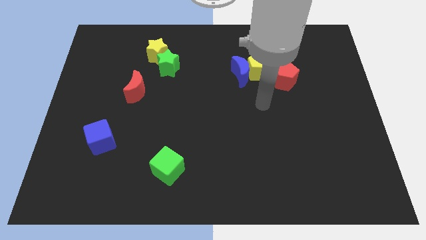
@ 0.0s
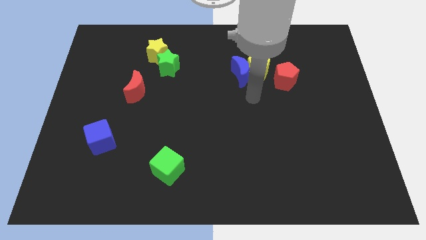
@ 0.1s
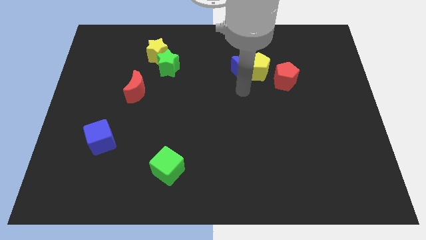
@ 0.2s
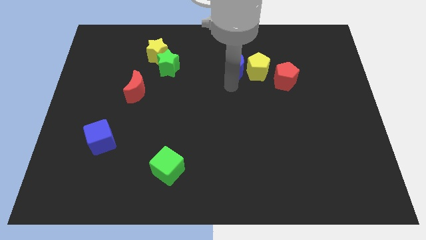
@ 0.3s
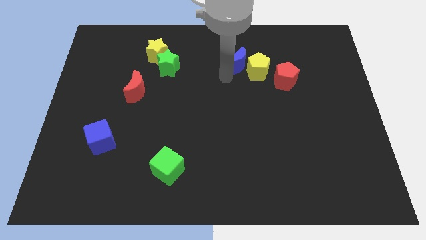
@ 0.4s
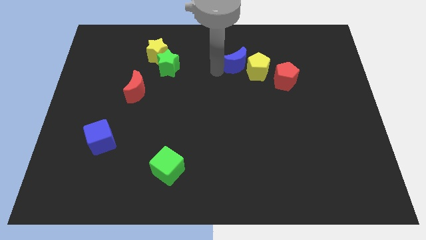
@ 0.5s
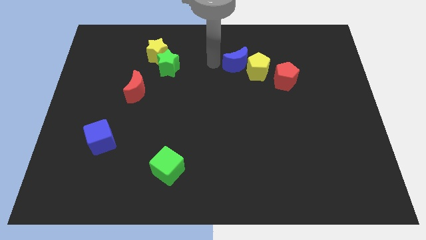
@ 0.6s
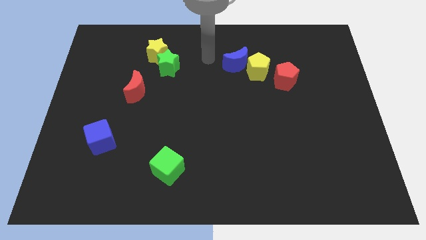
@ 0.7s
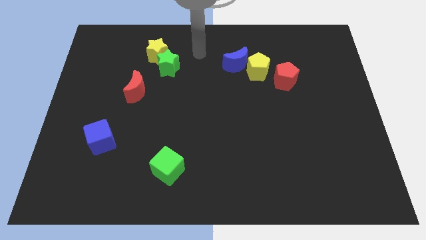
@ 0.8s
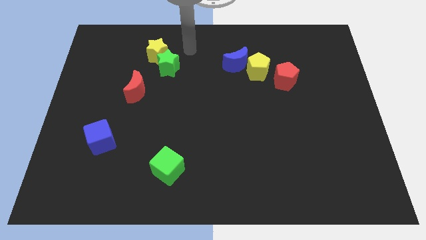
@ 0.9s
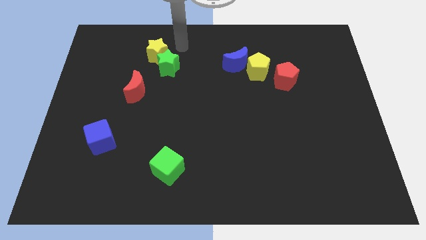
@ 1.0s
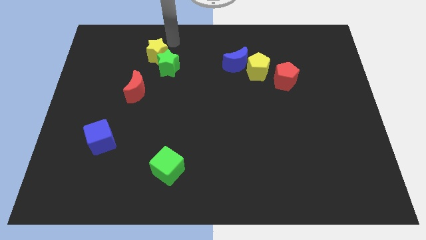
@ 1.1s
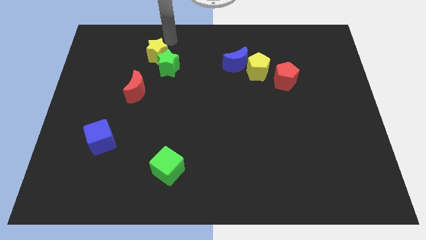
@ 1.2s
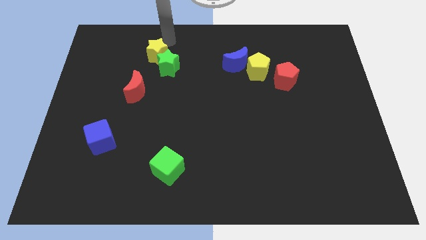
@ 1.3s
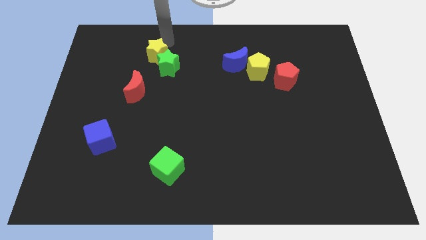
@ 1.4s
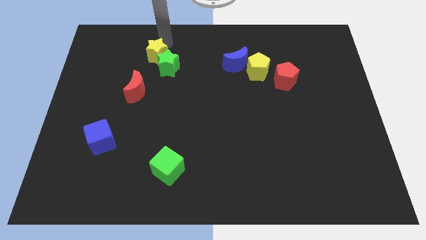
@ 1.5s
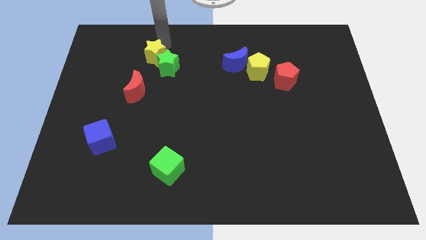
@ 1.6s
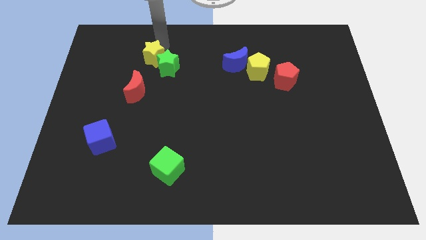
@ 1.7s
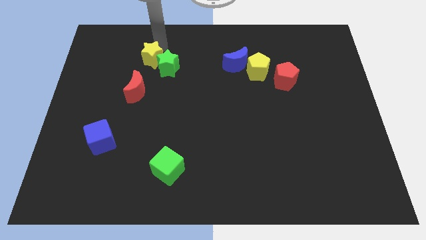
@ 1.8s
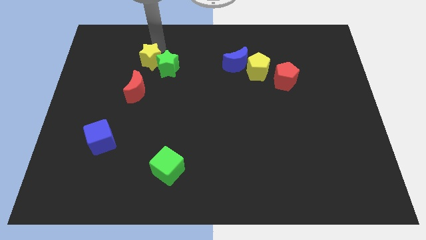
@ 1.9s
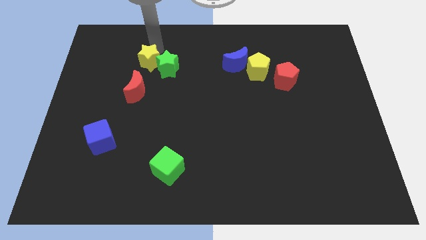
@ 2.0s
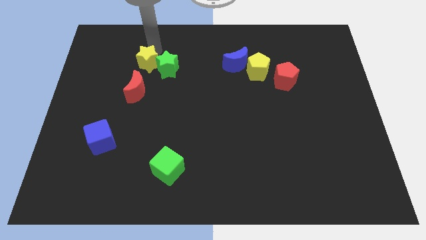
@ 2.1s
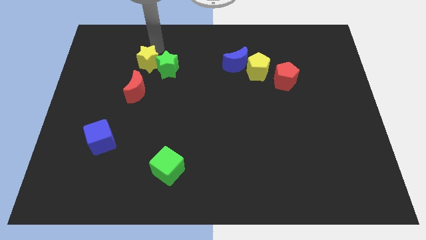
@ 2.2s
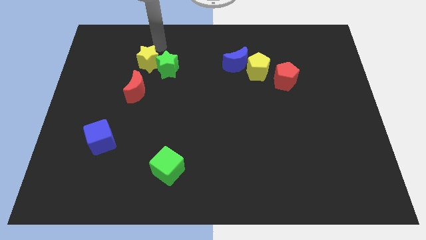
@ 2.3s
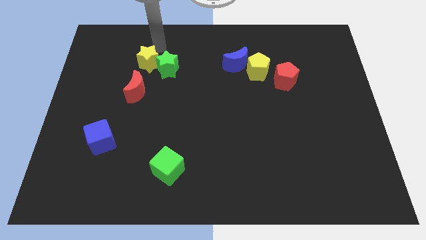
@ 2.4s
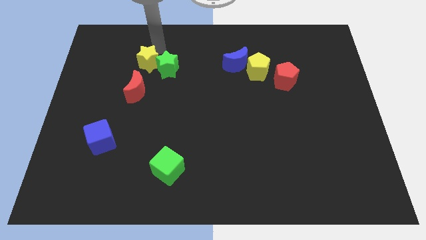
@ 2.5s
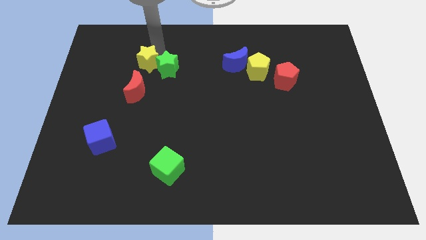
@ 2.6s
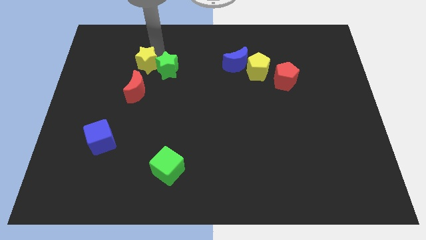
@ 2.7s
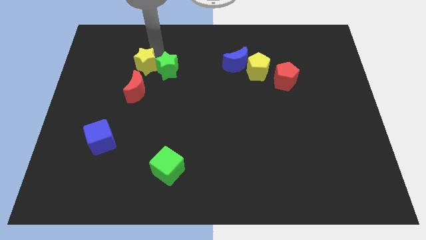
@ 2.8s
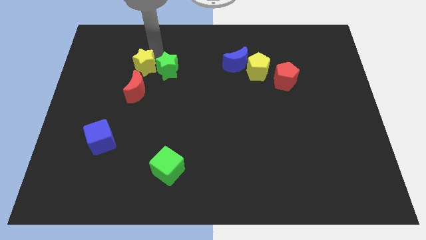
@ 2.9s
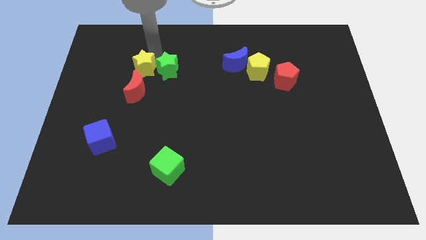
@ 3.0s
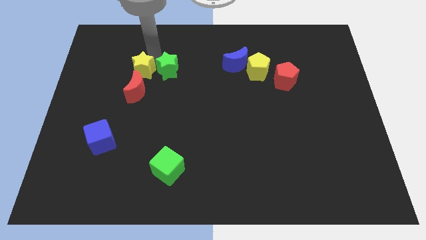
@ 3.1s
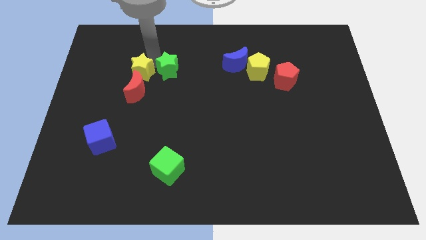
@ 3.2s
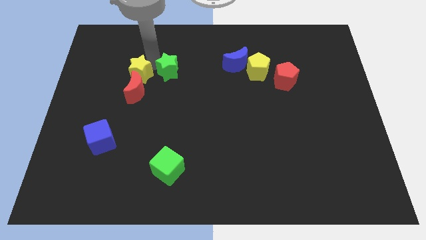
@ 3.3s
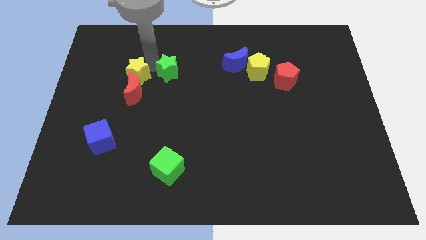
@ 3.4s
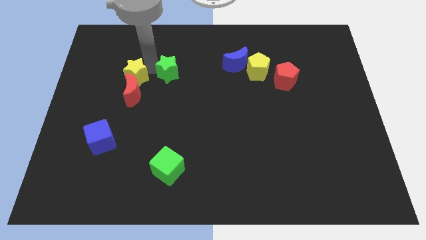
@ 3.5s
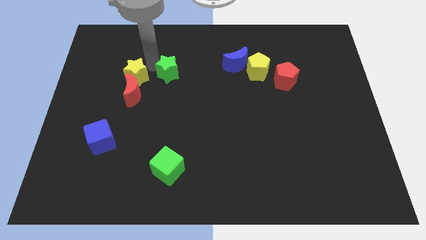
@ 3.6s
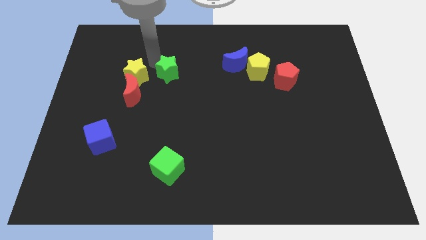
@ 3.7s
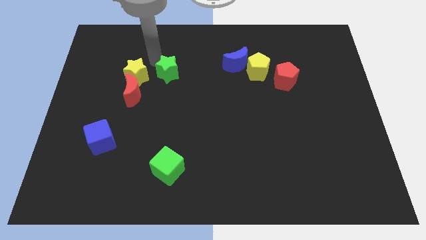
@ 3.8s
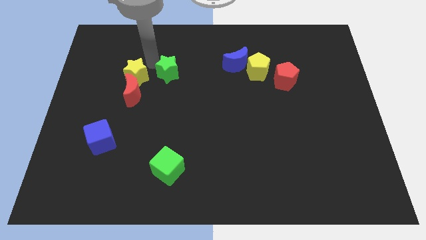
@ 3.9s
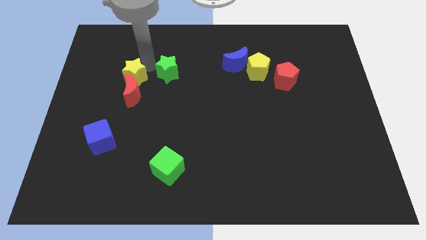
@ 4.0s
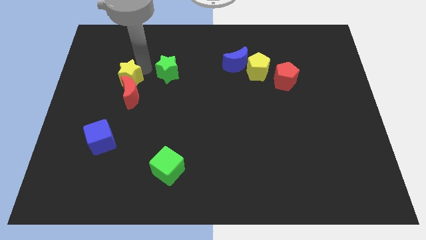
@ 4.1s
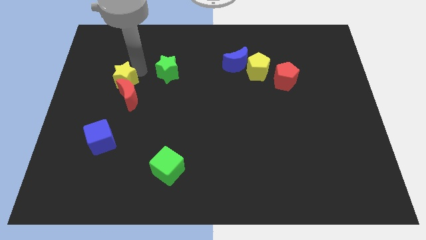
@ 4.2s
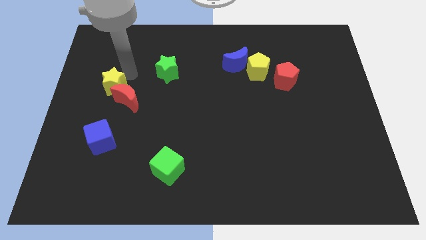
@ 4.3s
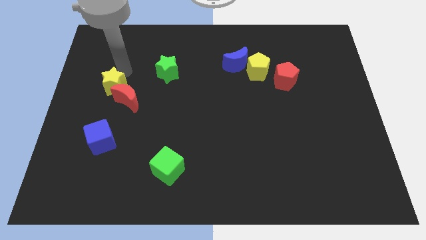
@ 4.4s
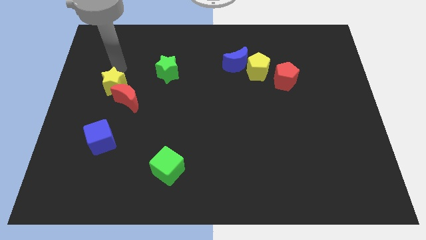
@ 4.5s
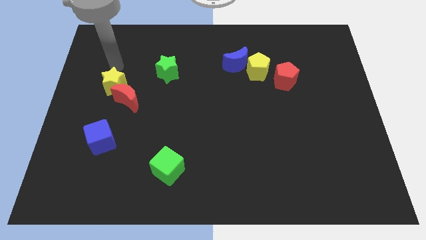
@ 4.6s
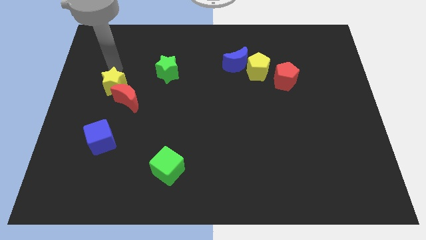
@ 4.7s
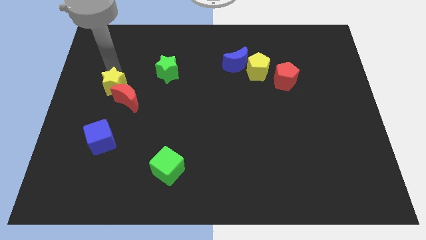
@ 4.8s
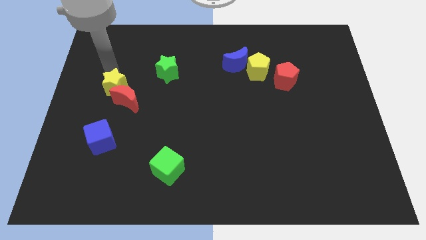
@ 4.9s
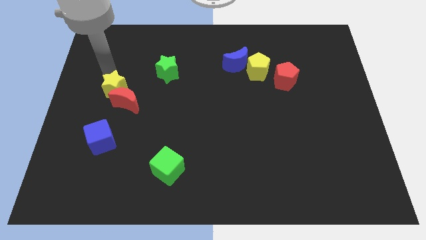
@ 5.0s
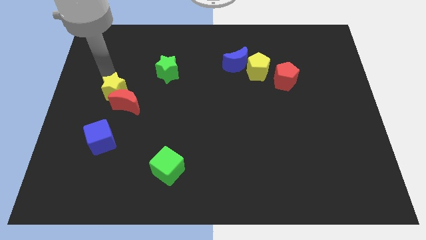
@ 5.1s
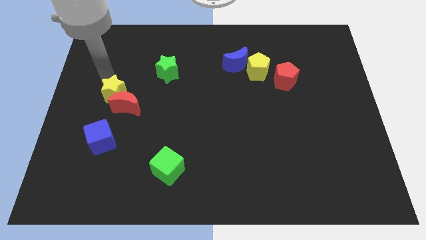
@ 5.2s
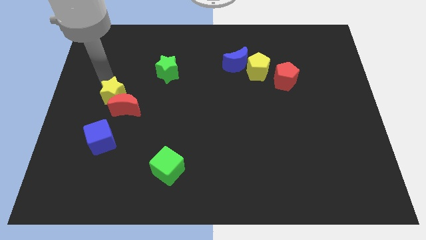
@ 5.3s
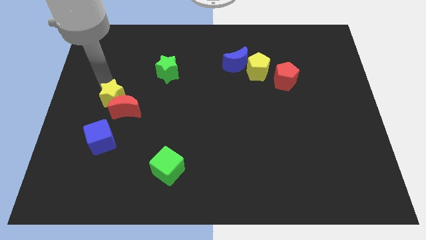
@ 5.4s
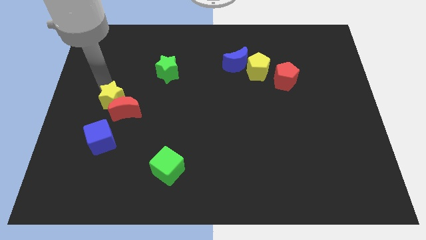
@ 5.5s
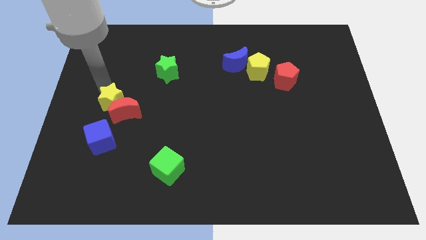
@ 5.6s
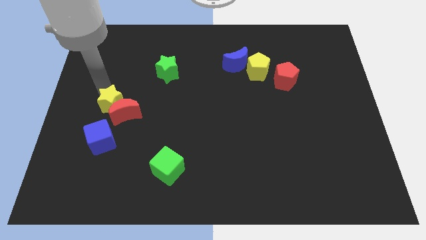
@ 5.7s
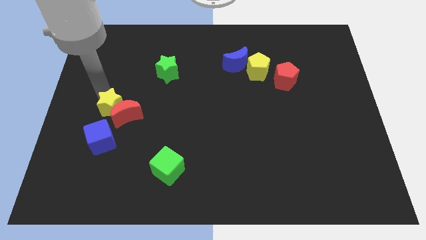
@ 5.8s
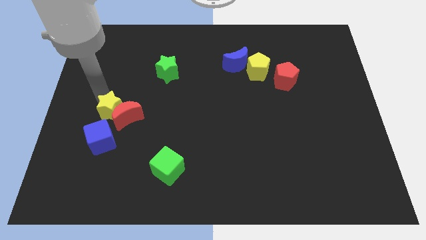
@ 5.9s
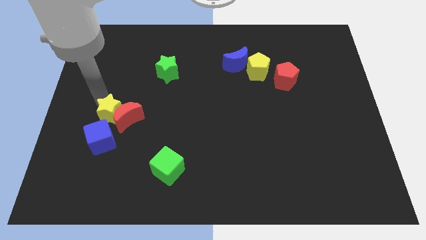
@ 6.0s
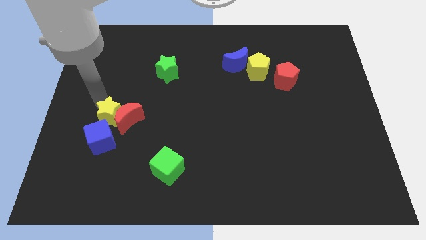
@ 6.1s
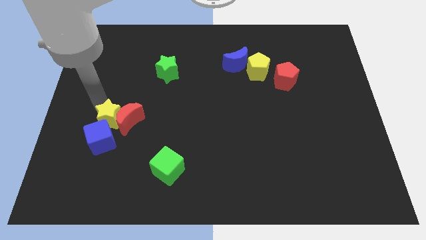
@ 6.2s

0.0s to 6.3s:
move the yellow star close to the blue cube

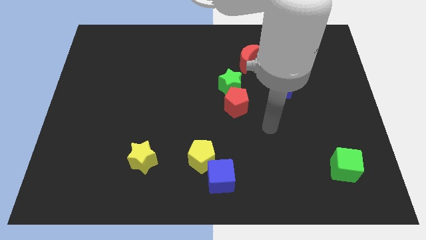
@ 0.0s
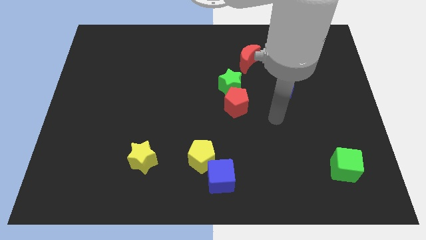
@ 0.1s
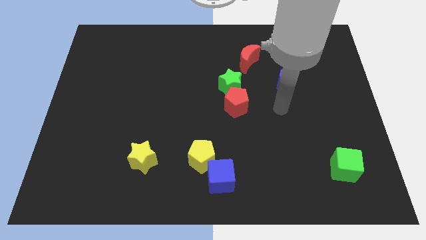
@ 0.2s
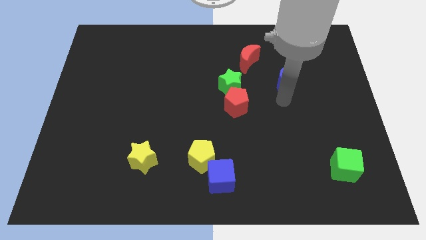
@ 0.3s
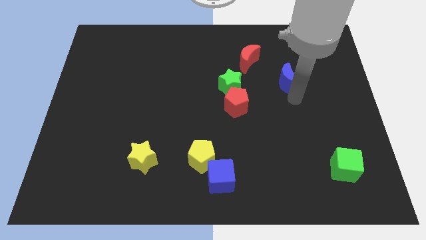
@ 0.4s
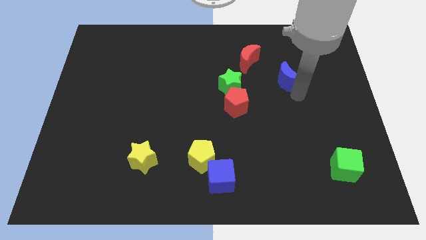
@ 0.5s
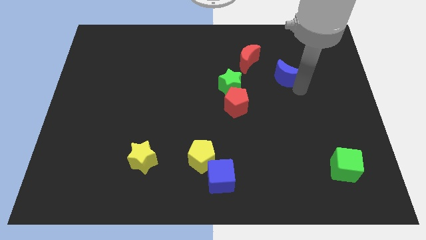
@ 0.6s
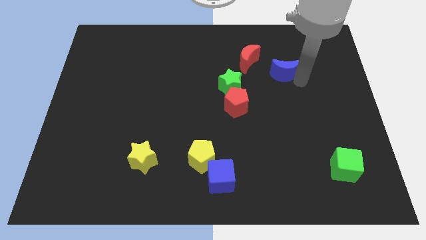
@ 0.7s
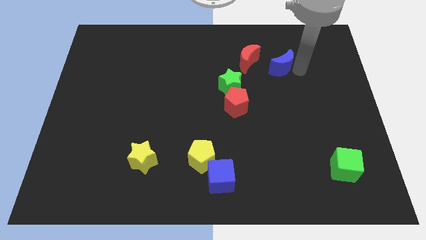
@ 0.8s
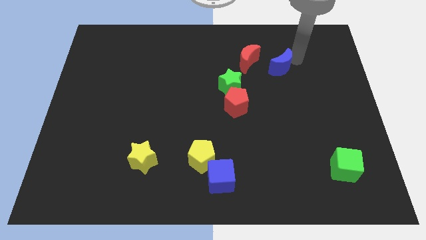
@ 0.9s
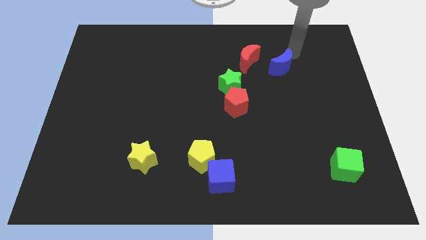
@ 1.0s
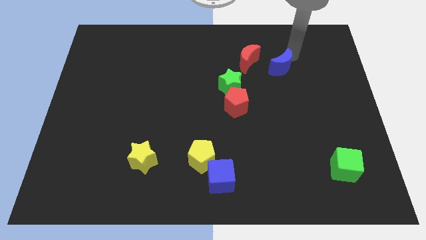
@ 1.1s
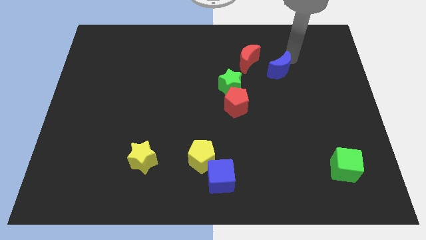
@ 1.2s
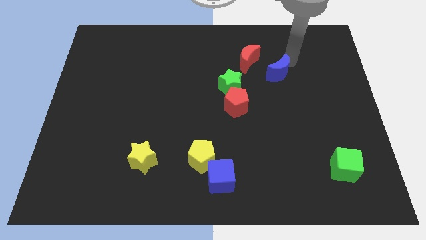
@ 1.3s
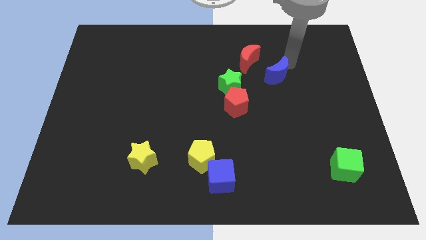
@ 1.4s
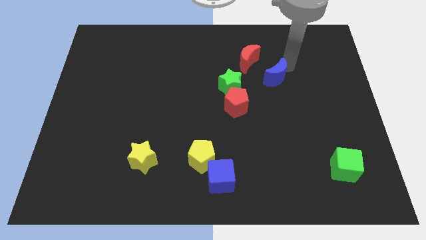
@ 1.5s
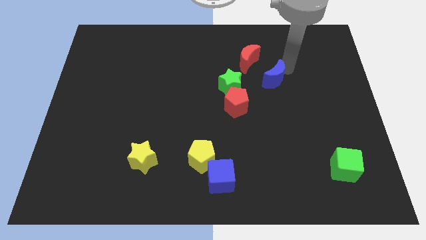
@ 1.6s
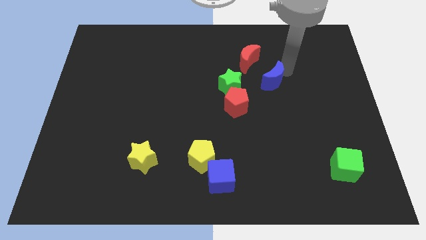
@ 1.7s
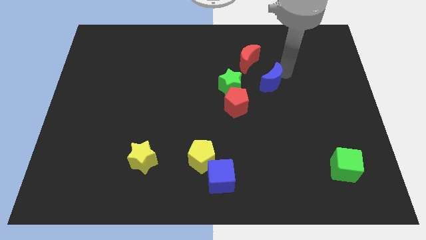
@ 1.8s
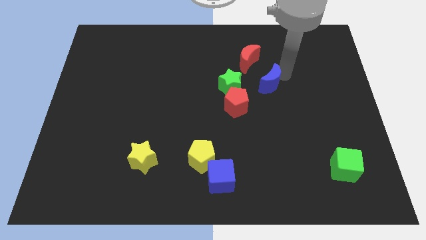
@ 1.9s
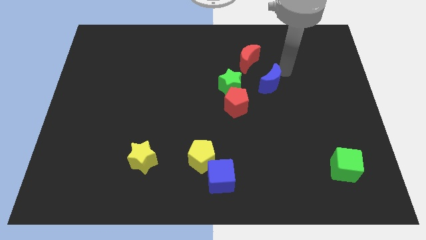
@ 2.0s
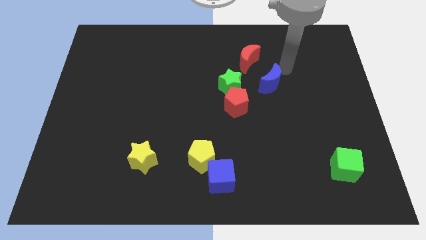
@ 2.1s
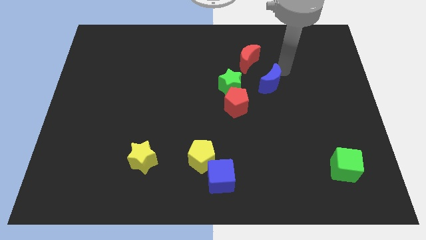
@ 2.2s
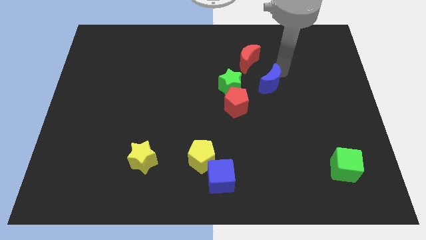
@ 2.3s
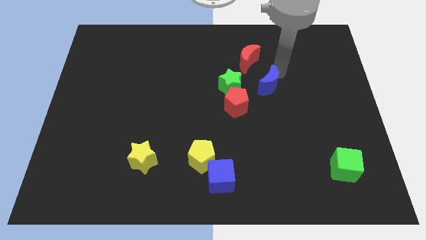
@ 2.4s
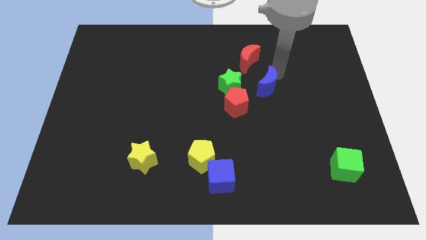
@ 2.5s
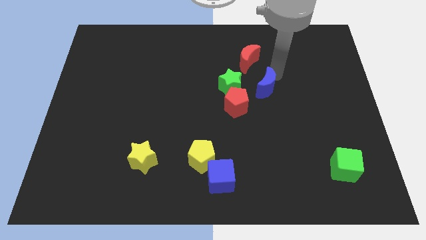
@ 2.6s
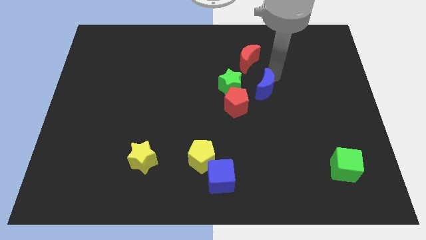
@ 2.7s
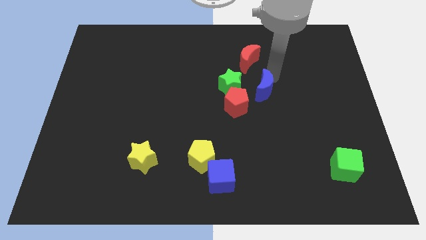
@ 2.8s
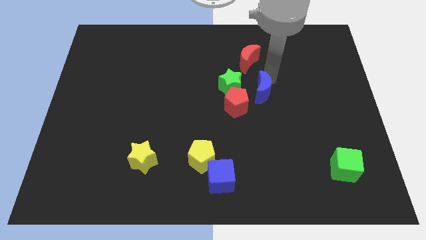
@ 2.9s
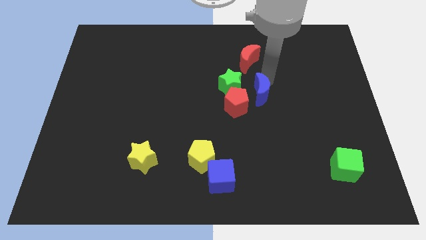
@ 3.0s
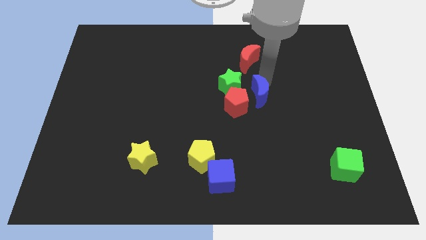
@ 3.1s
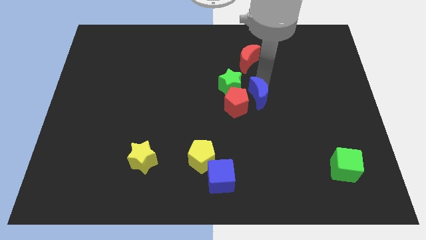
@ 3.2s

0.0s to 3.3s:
move the blue moon towards the red pentagon
